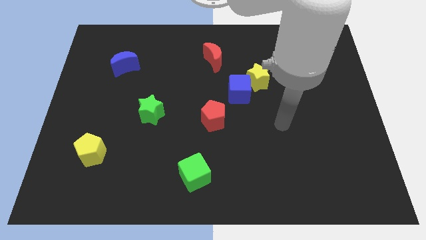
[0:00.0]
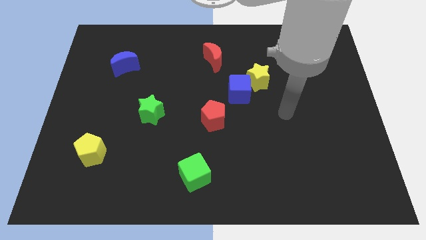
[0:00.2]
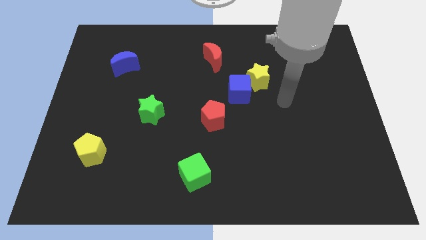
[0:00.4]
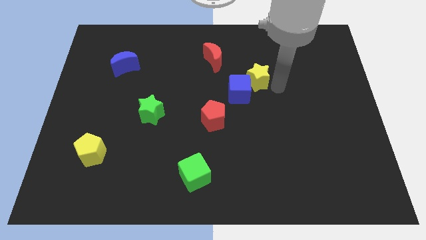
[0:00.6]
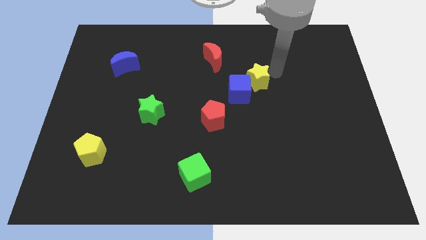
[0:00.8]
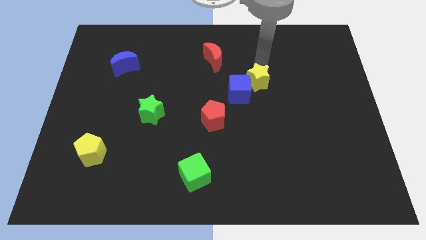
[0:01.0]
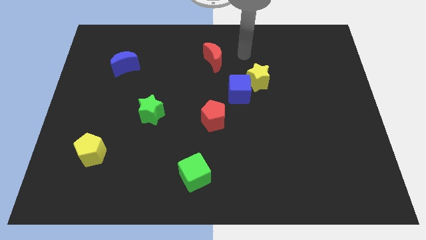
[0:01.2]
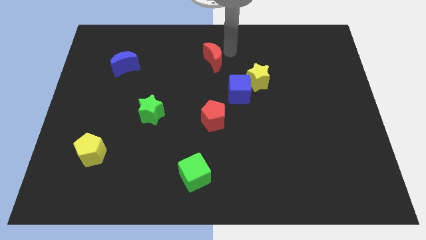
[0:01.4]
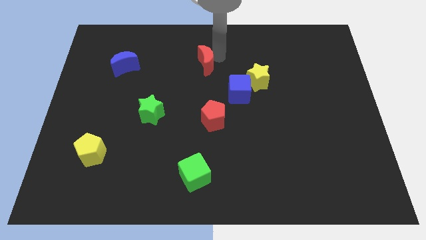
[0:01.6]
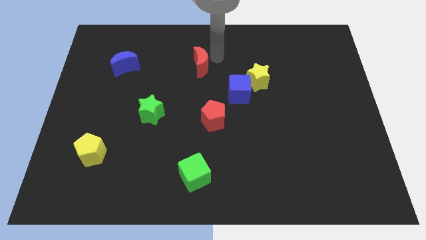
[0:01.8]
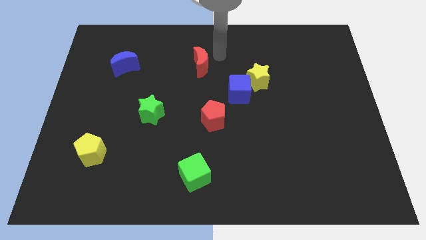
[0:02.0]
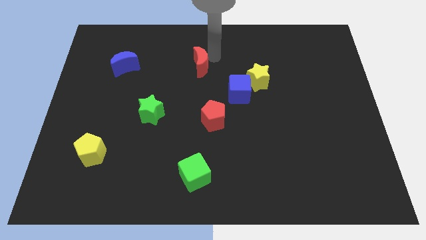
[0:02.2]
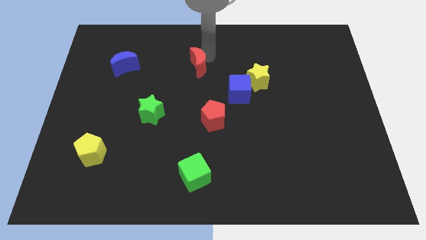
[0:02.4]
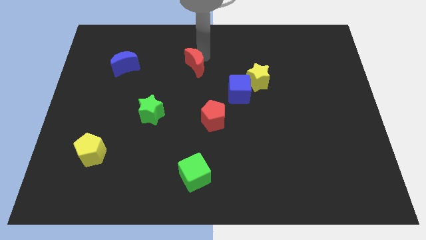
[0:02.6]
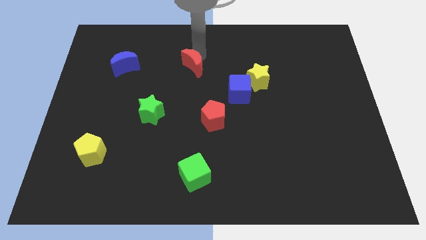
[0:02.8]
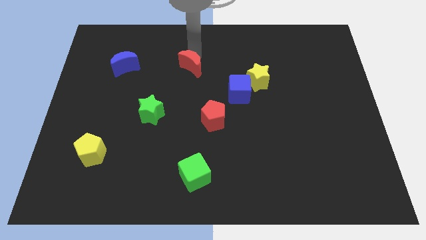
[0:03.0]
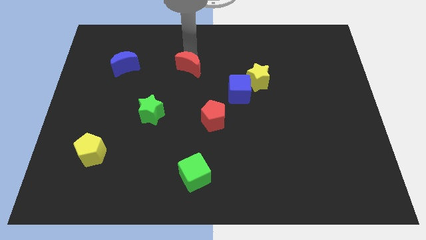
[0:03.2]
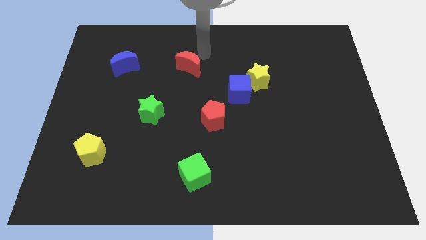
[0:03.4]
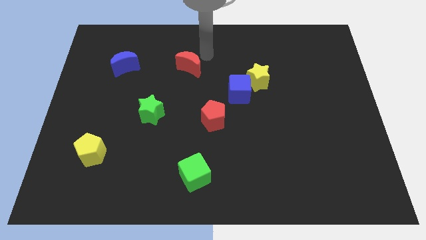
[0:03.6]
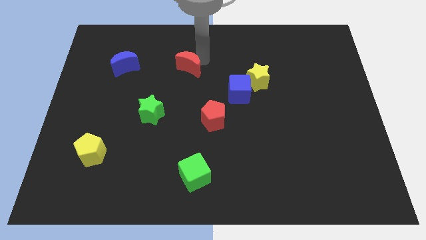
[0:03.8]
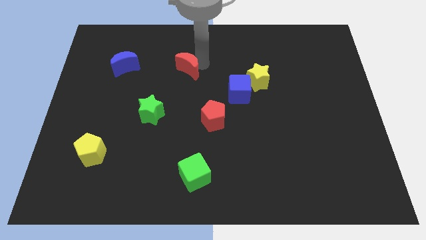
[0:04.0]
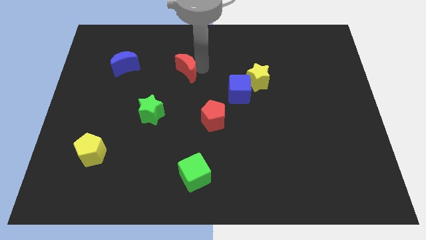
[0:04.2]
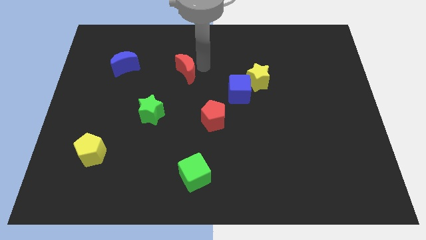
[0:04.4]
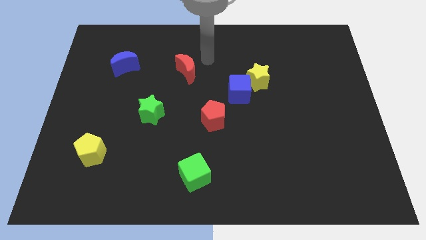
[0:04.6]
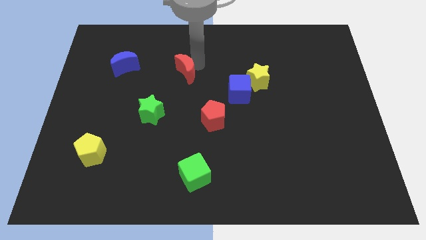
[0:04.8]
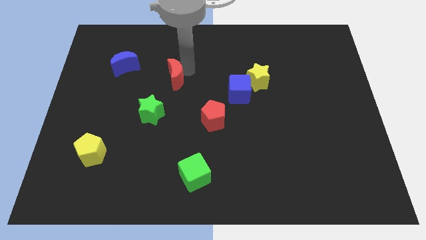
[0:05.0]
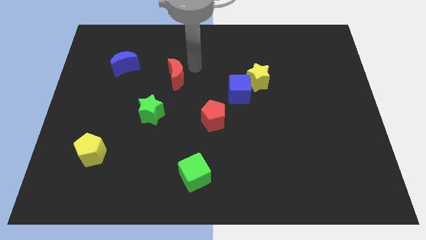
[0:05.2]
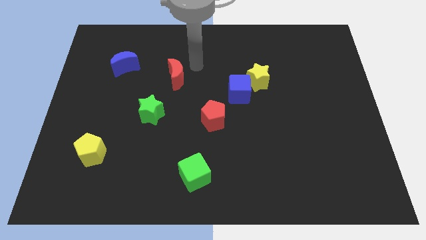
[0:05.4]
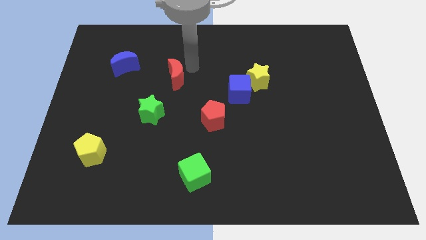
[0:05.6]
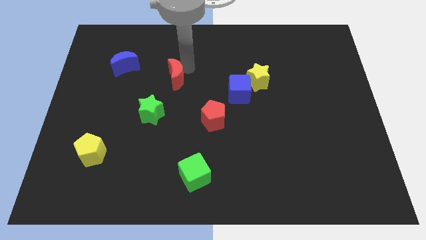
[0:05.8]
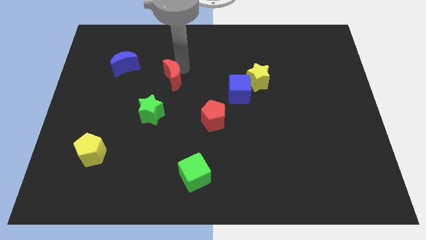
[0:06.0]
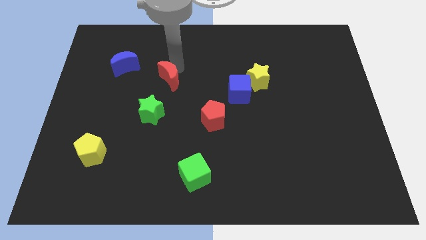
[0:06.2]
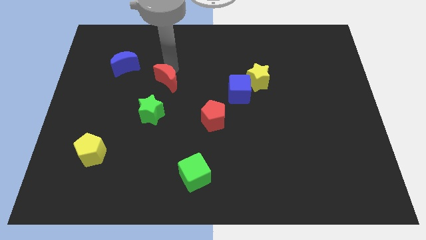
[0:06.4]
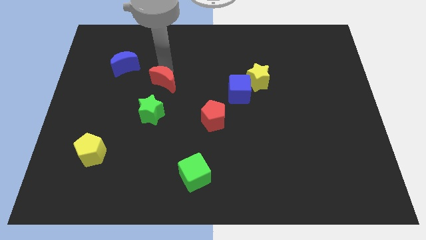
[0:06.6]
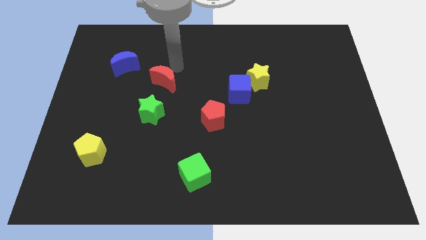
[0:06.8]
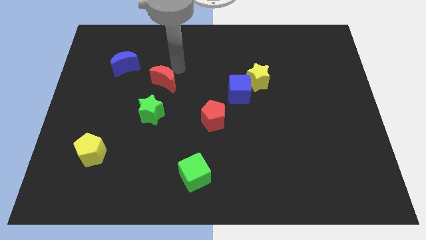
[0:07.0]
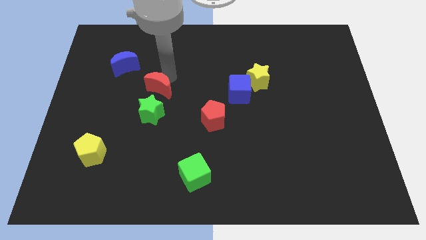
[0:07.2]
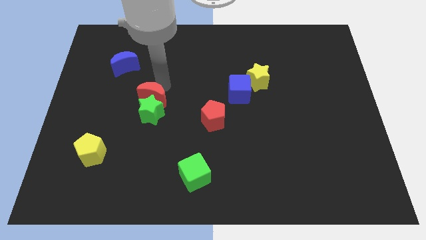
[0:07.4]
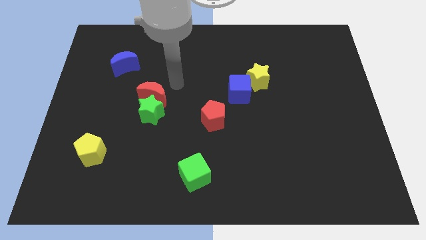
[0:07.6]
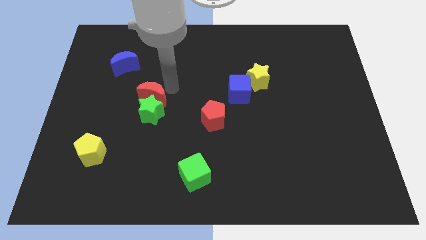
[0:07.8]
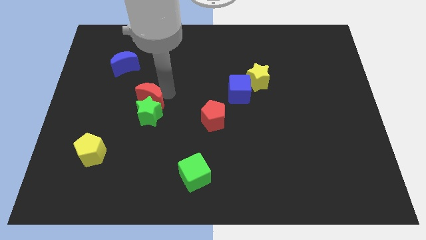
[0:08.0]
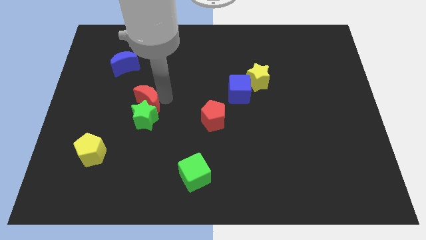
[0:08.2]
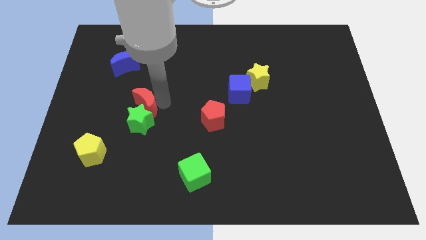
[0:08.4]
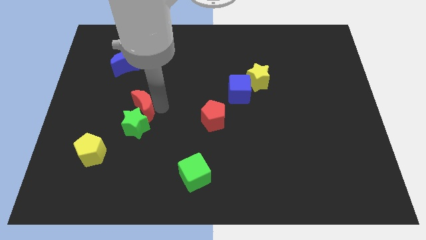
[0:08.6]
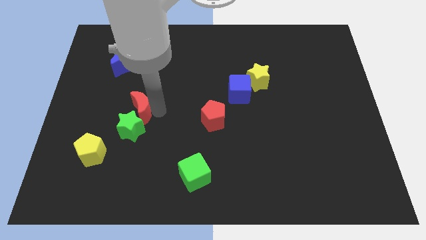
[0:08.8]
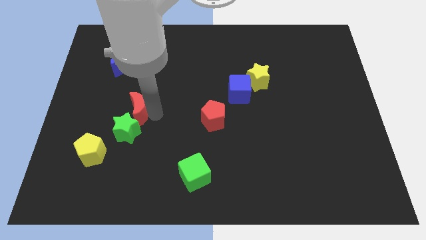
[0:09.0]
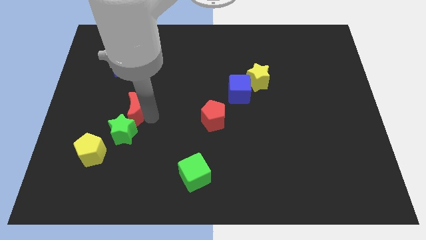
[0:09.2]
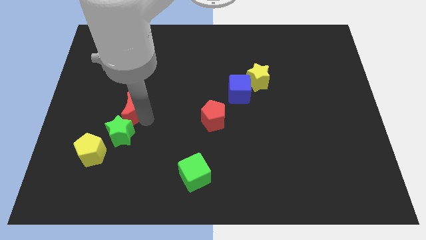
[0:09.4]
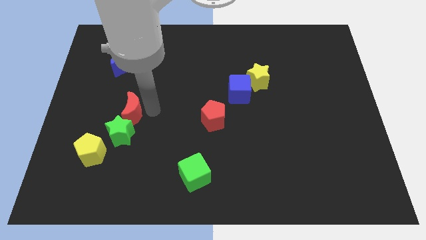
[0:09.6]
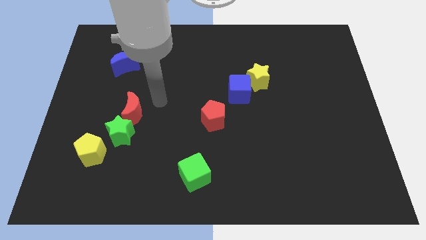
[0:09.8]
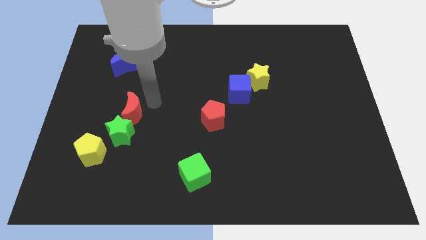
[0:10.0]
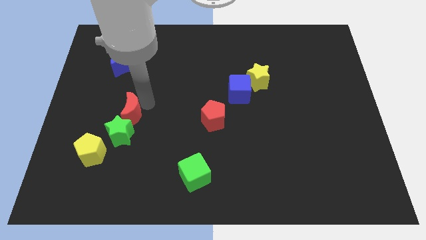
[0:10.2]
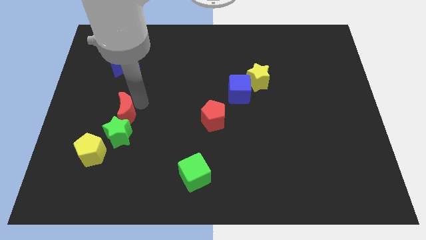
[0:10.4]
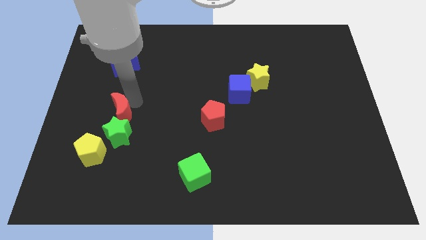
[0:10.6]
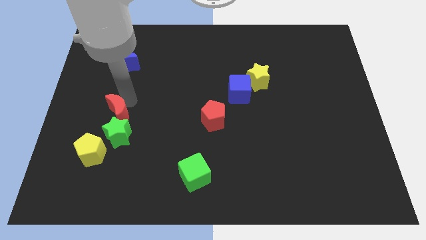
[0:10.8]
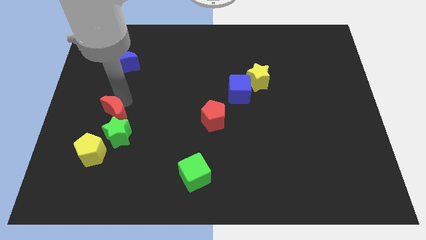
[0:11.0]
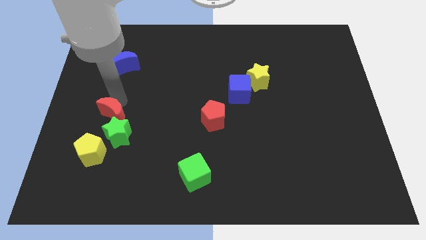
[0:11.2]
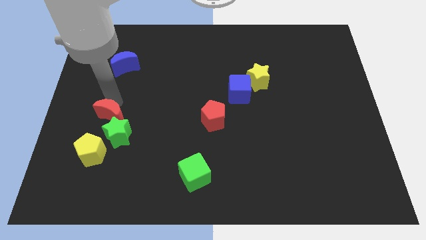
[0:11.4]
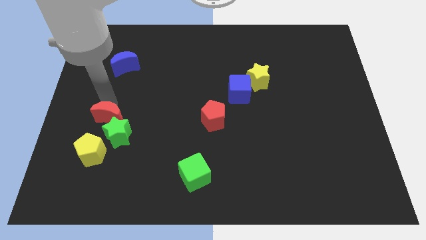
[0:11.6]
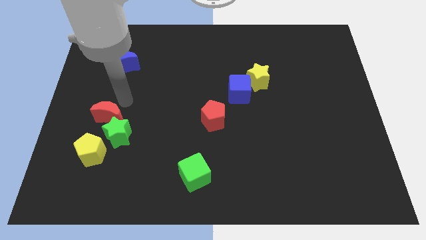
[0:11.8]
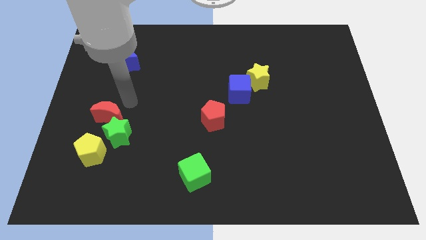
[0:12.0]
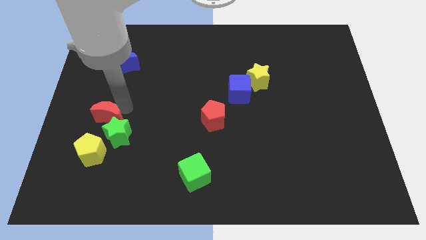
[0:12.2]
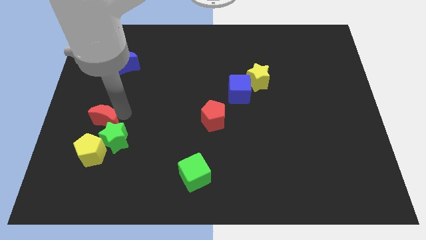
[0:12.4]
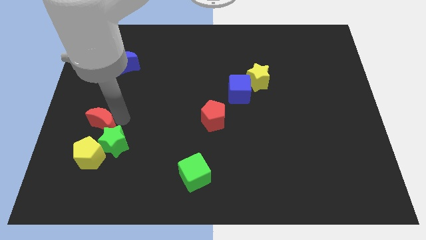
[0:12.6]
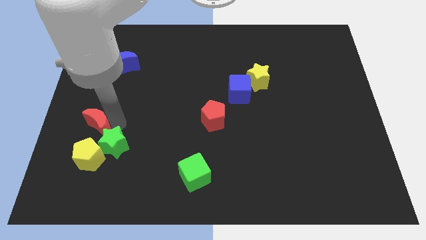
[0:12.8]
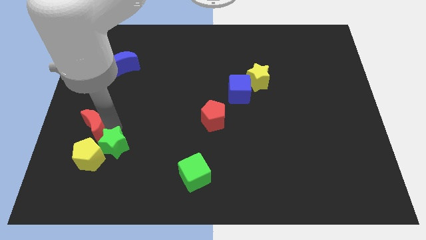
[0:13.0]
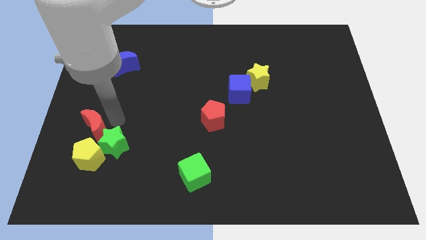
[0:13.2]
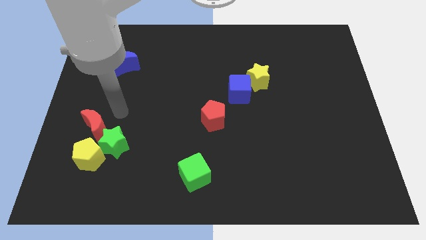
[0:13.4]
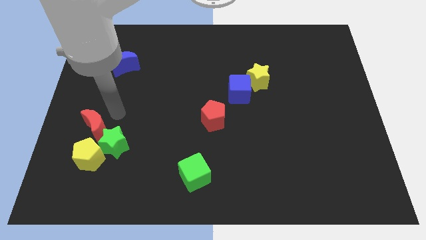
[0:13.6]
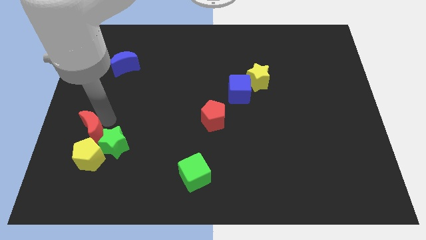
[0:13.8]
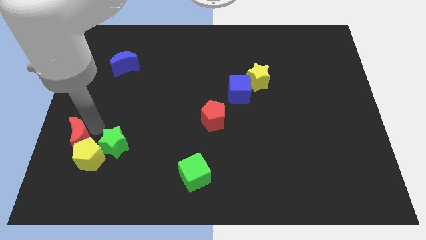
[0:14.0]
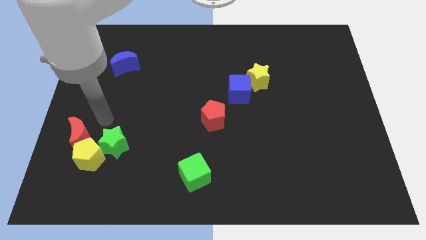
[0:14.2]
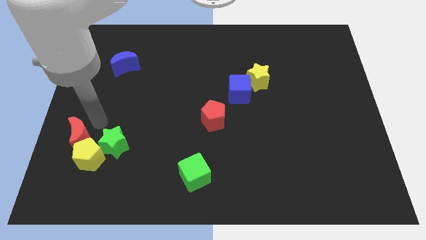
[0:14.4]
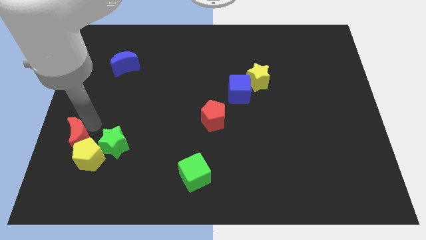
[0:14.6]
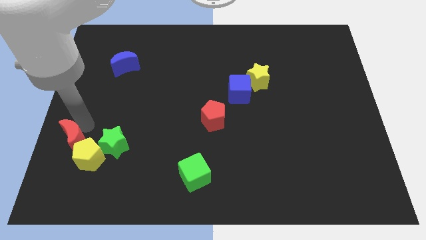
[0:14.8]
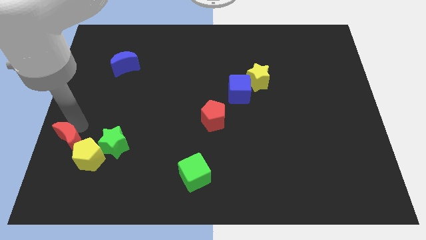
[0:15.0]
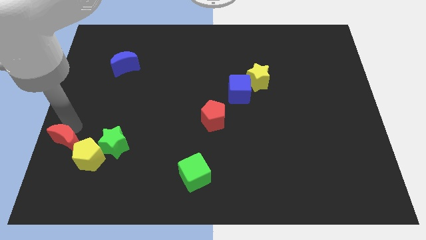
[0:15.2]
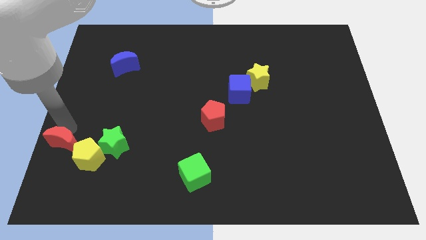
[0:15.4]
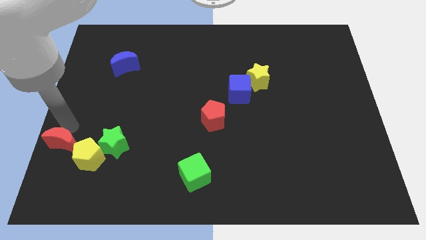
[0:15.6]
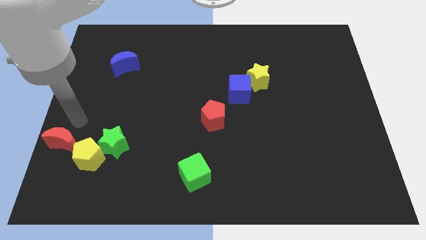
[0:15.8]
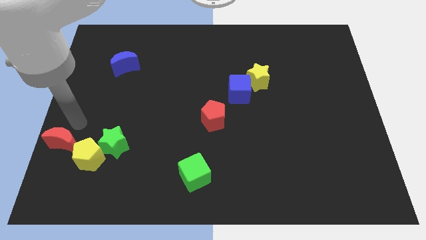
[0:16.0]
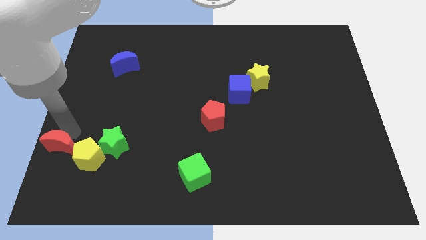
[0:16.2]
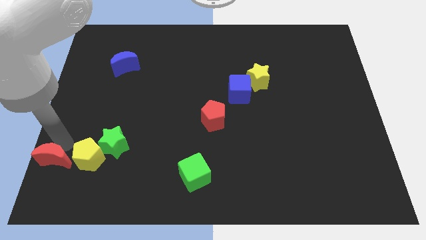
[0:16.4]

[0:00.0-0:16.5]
move the red moon to the bottom left corner
